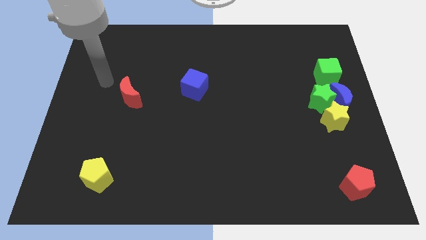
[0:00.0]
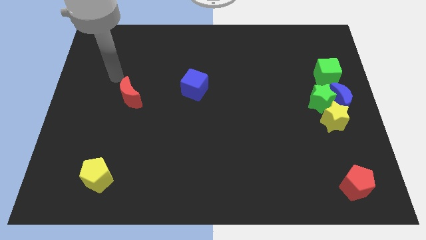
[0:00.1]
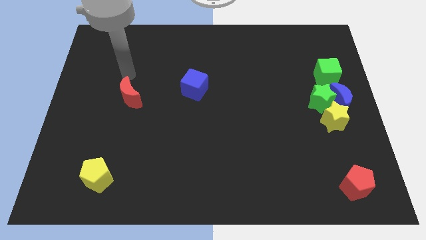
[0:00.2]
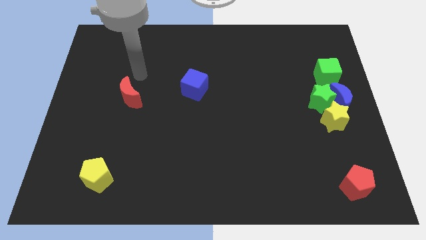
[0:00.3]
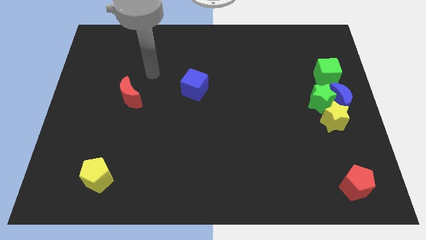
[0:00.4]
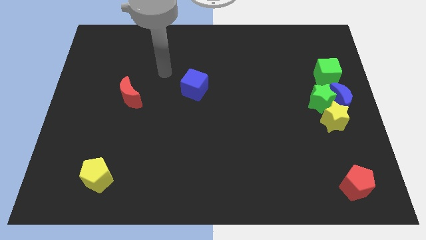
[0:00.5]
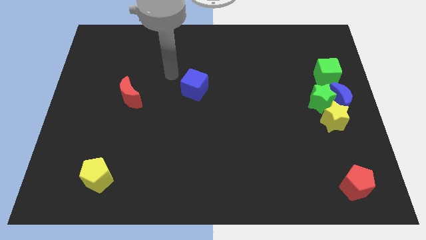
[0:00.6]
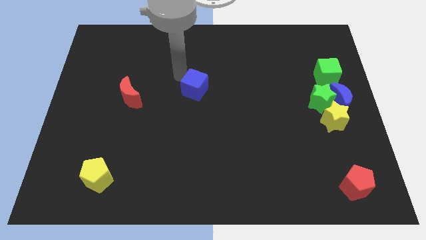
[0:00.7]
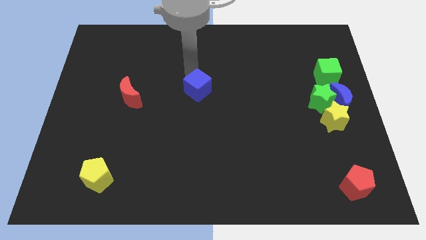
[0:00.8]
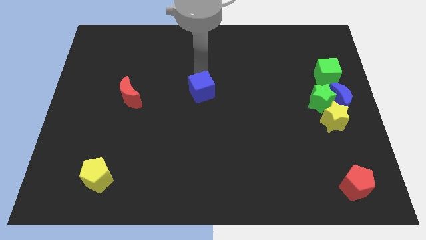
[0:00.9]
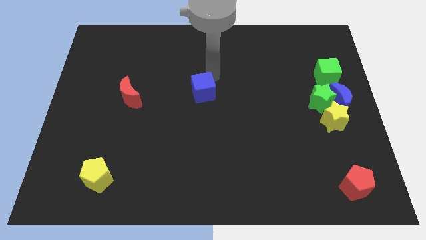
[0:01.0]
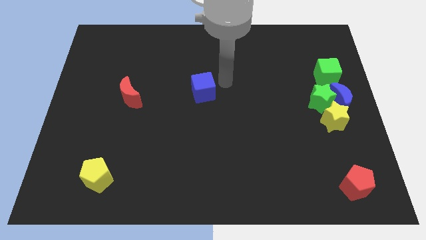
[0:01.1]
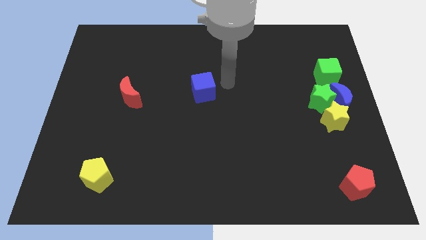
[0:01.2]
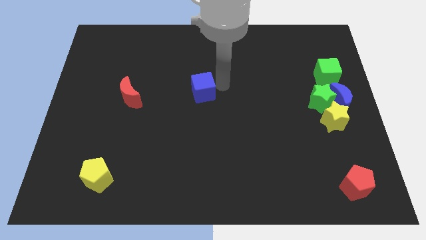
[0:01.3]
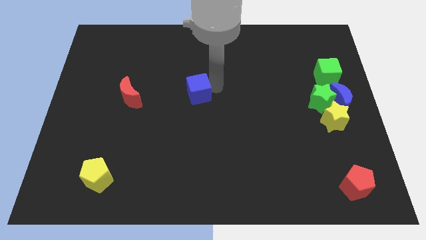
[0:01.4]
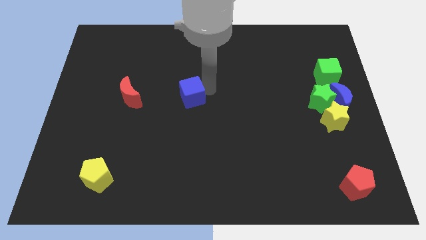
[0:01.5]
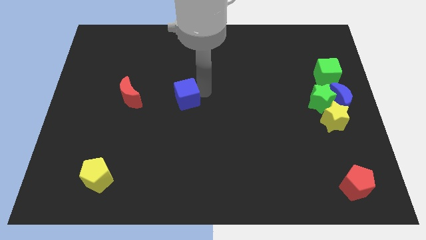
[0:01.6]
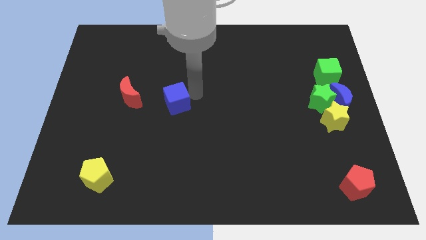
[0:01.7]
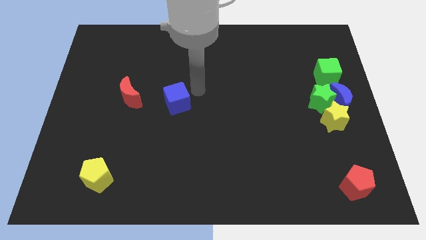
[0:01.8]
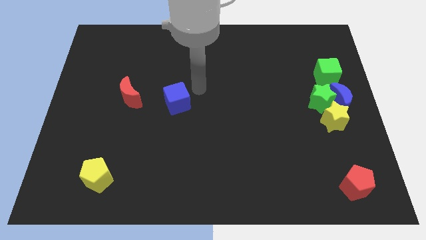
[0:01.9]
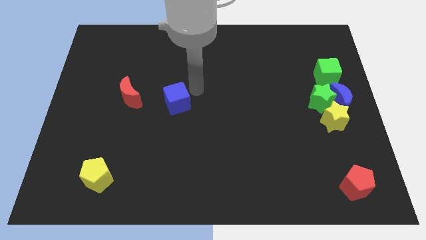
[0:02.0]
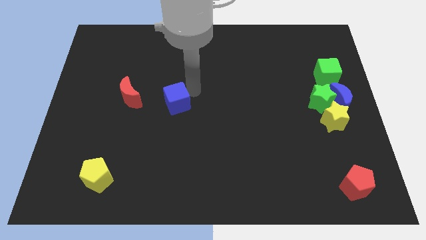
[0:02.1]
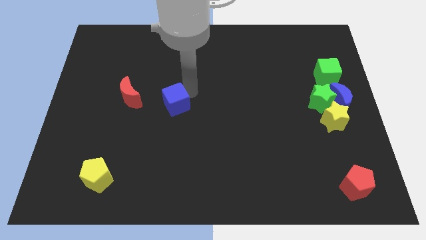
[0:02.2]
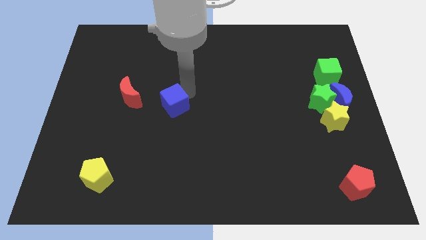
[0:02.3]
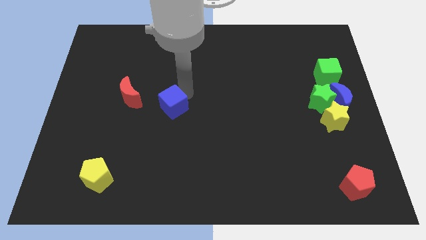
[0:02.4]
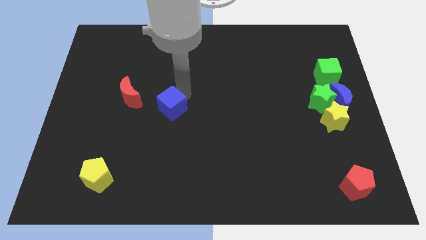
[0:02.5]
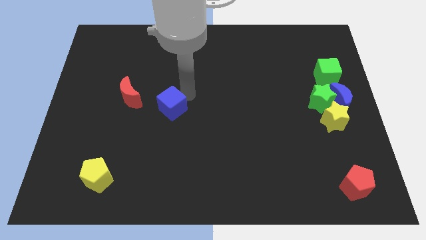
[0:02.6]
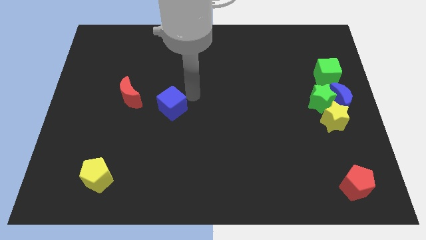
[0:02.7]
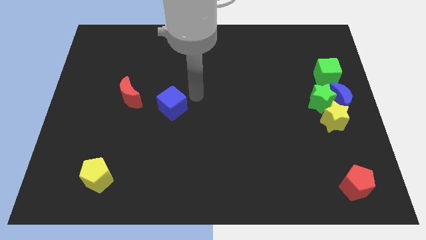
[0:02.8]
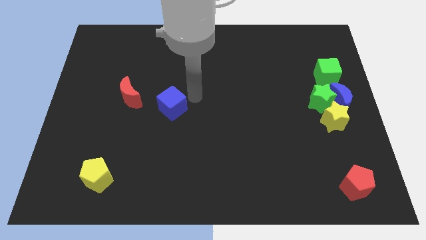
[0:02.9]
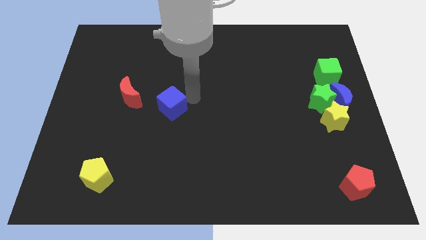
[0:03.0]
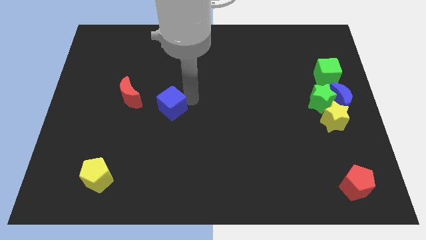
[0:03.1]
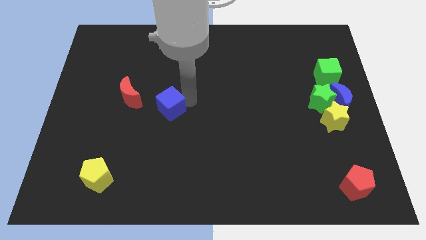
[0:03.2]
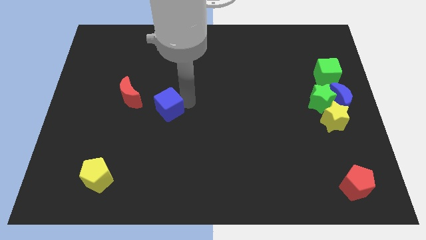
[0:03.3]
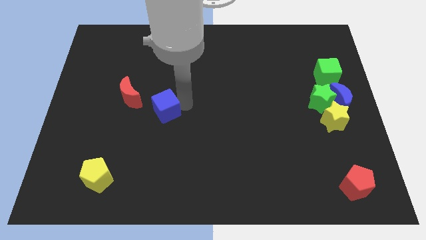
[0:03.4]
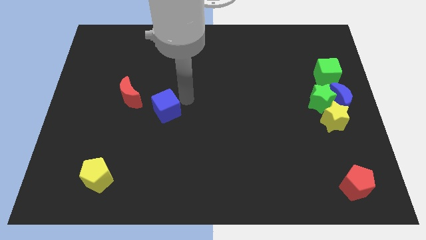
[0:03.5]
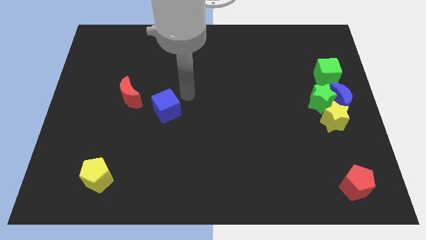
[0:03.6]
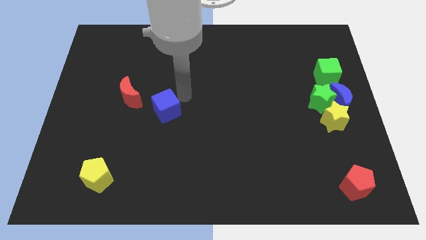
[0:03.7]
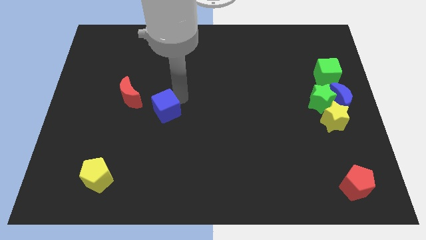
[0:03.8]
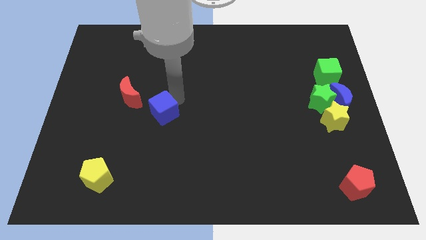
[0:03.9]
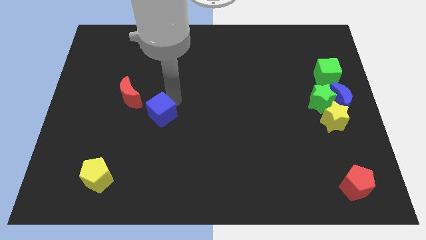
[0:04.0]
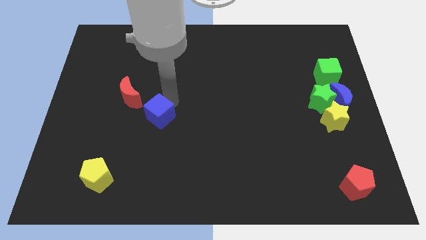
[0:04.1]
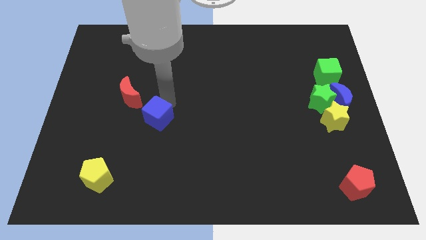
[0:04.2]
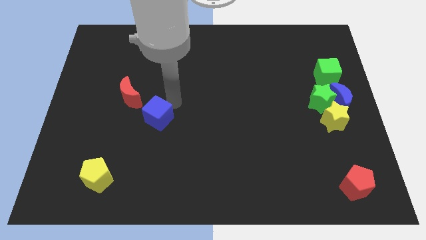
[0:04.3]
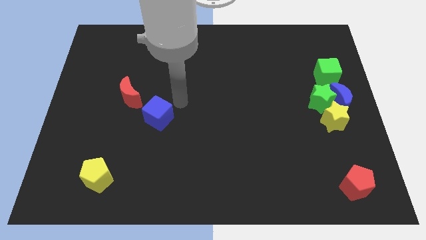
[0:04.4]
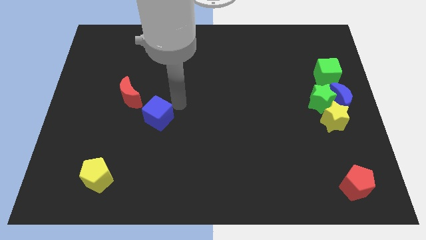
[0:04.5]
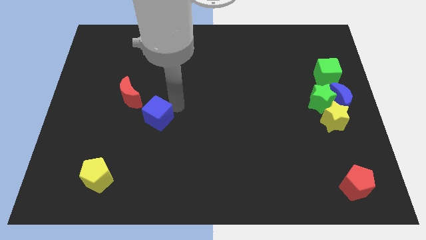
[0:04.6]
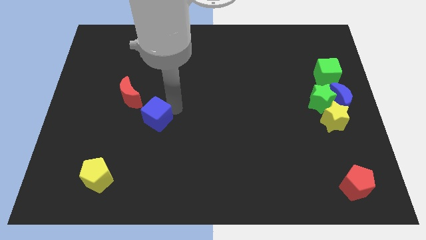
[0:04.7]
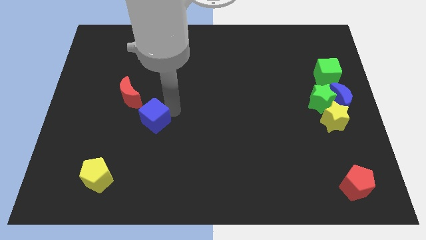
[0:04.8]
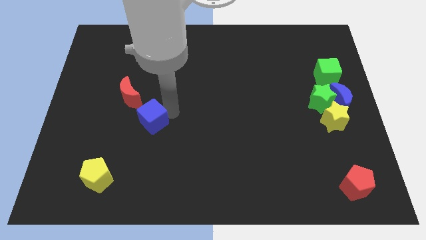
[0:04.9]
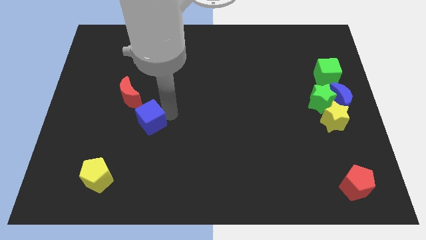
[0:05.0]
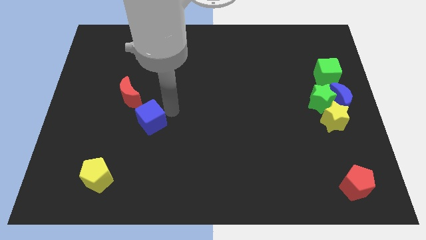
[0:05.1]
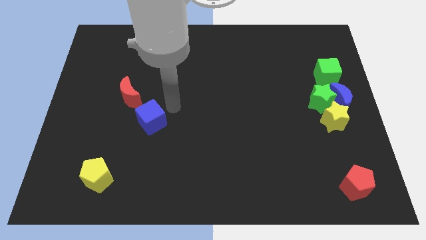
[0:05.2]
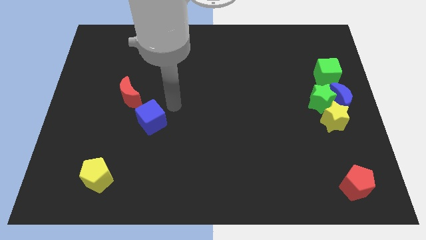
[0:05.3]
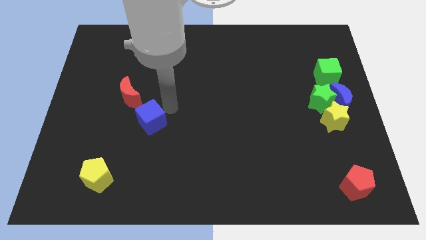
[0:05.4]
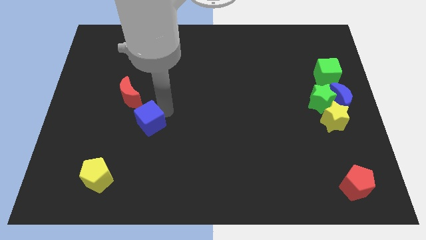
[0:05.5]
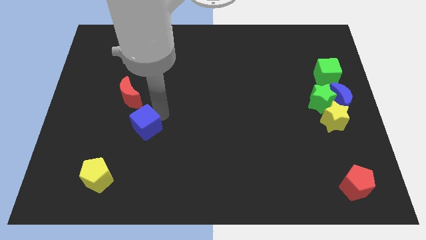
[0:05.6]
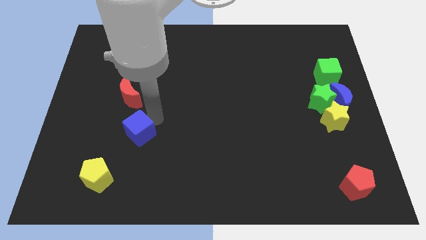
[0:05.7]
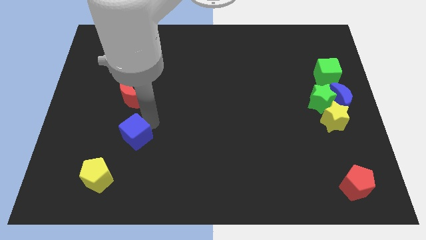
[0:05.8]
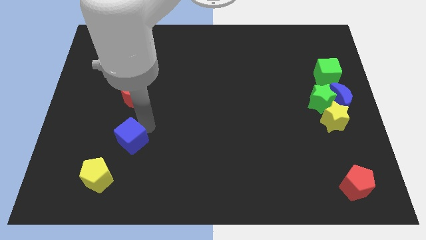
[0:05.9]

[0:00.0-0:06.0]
move the blue cube down and left diagonally

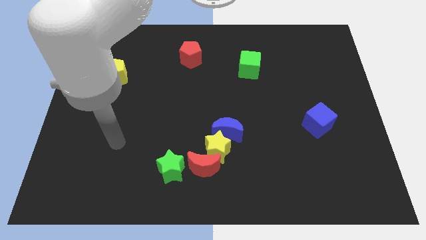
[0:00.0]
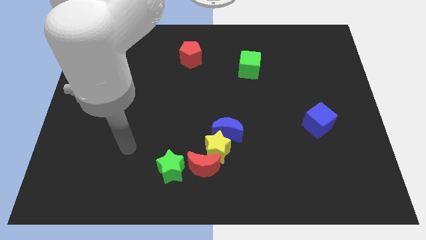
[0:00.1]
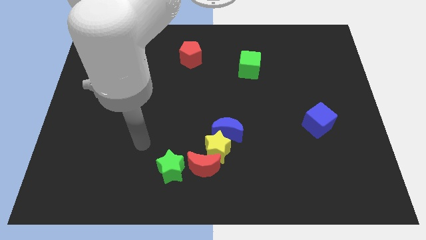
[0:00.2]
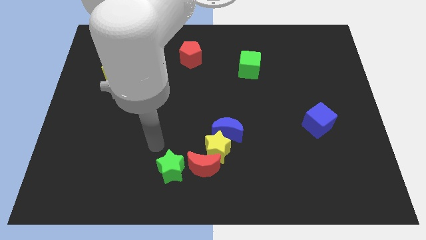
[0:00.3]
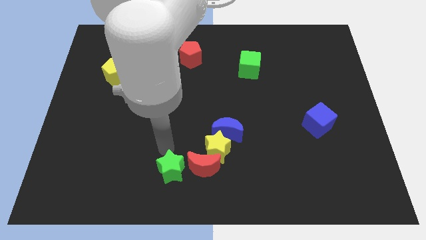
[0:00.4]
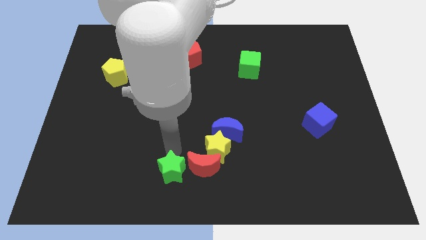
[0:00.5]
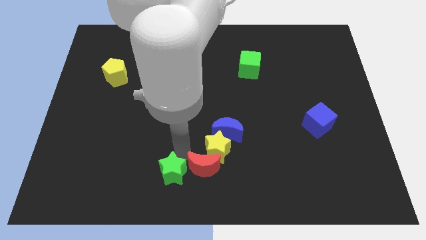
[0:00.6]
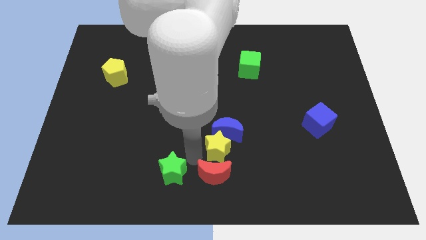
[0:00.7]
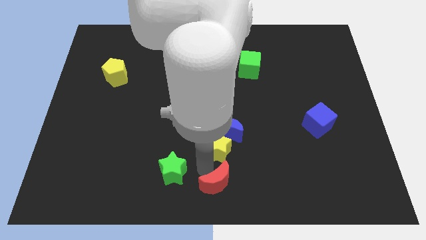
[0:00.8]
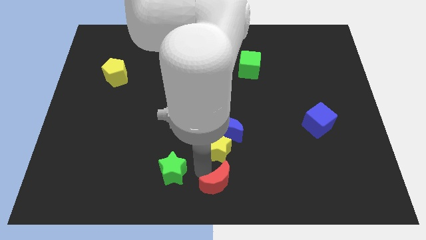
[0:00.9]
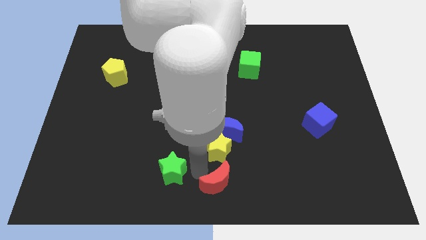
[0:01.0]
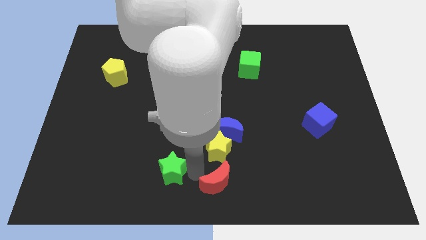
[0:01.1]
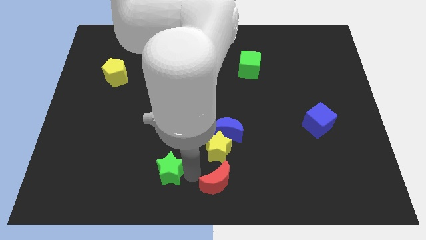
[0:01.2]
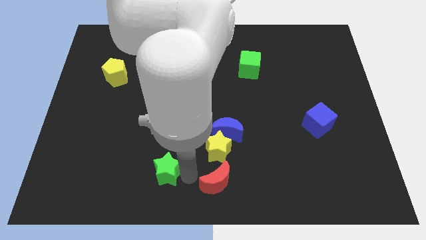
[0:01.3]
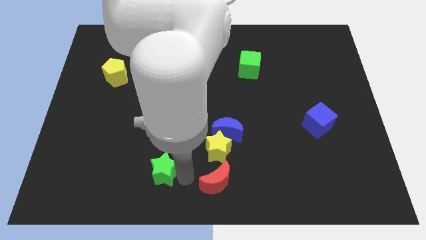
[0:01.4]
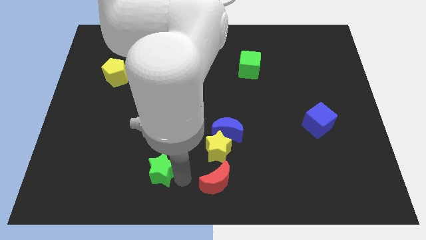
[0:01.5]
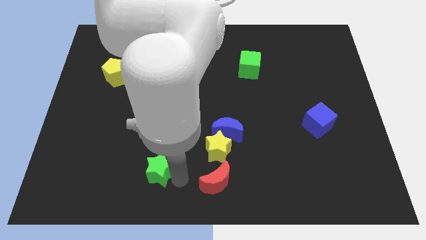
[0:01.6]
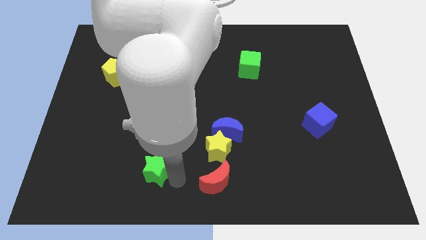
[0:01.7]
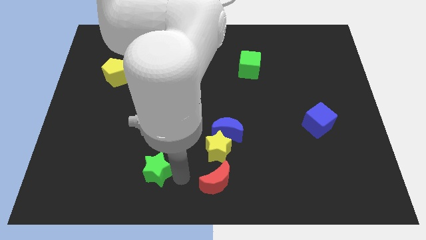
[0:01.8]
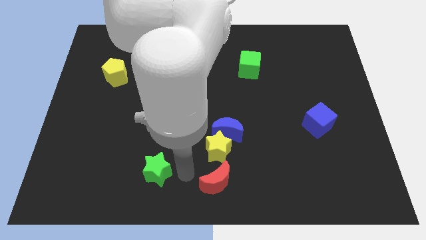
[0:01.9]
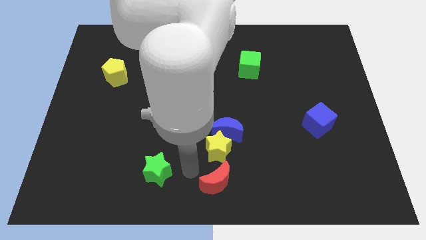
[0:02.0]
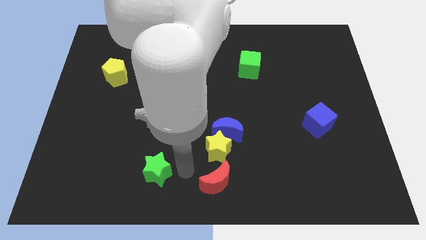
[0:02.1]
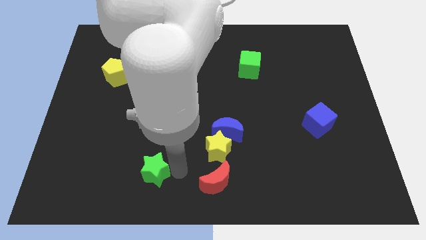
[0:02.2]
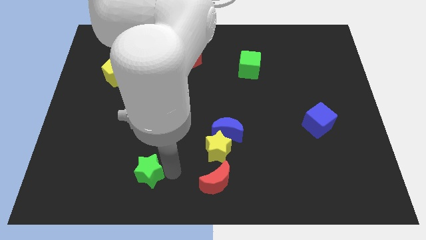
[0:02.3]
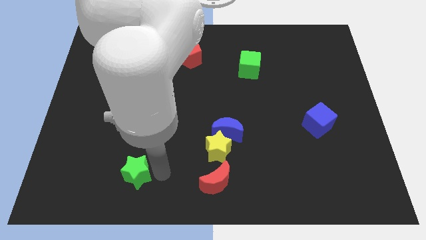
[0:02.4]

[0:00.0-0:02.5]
move the green star slightly to the left
